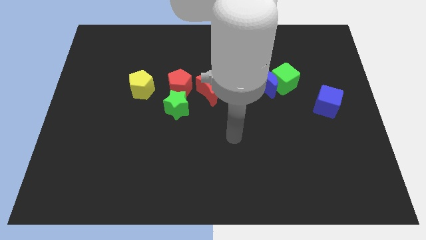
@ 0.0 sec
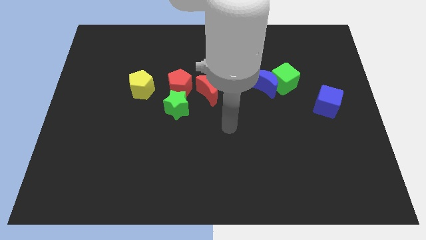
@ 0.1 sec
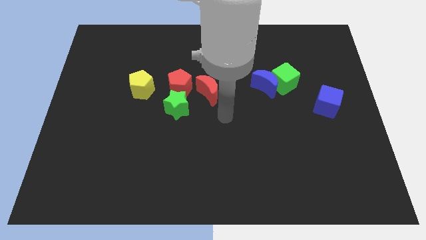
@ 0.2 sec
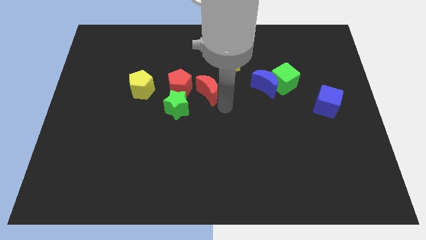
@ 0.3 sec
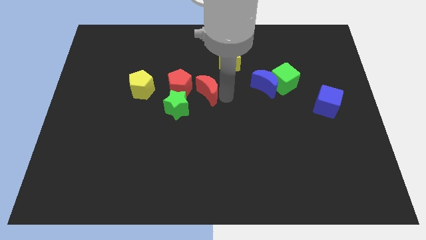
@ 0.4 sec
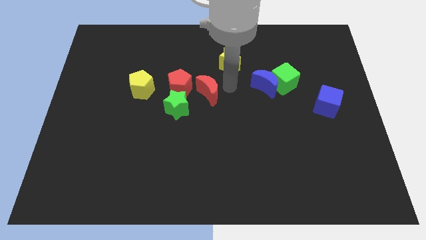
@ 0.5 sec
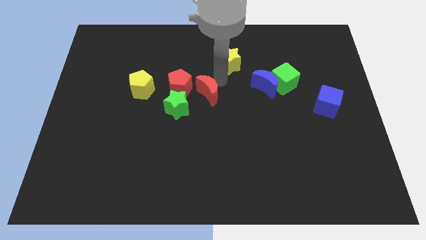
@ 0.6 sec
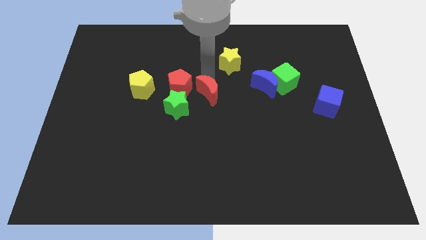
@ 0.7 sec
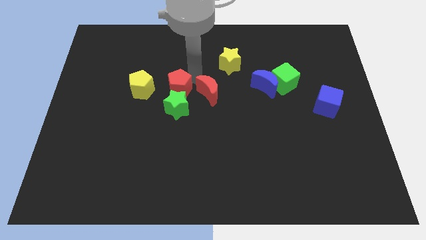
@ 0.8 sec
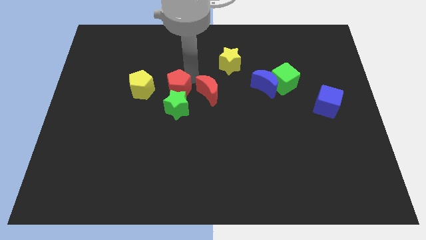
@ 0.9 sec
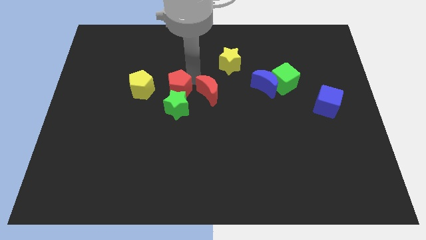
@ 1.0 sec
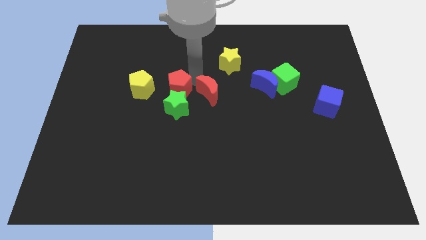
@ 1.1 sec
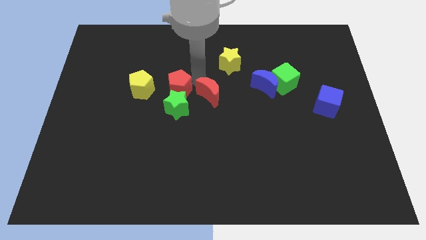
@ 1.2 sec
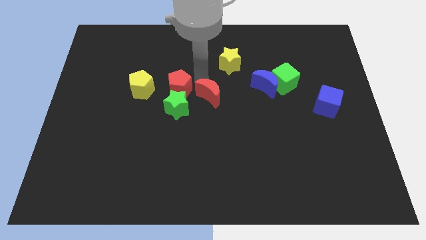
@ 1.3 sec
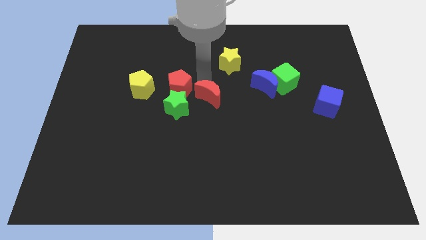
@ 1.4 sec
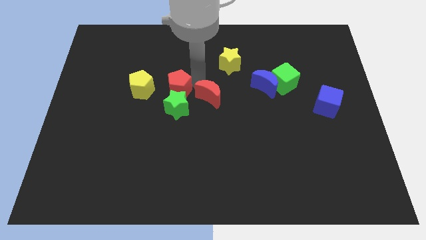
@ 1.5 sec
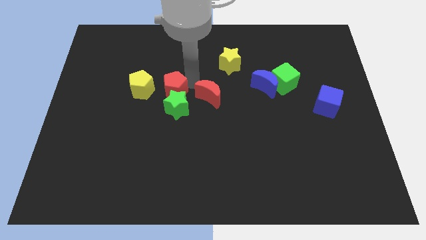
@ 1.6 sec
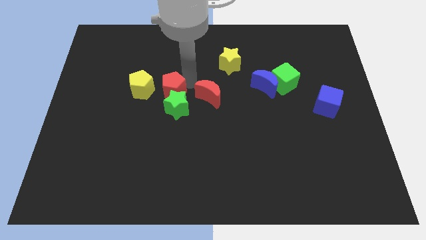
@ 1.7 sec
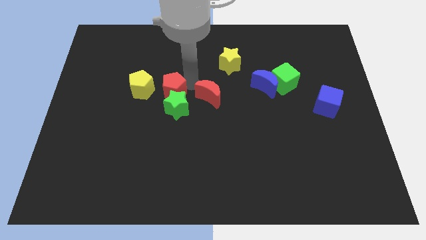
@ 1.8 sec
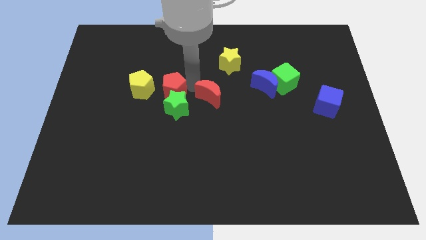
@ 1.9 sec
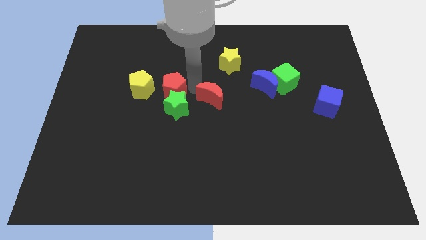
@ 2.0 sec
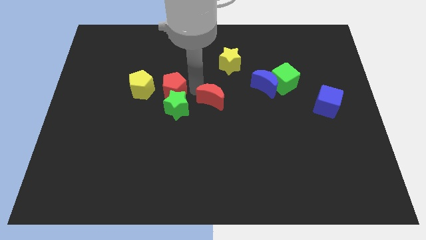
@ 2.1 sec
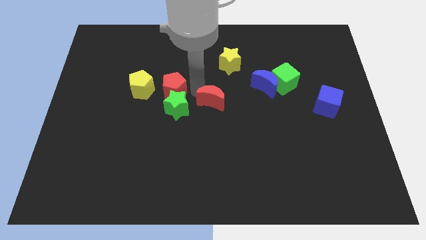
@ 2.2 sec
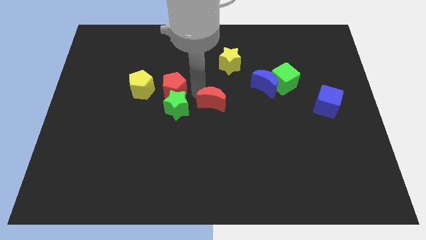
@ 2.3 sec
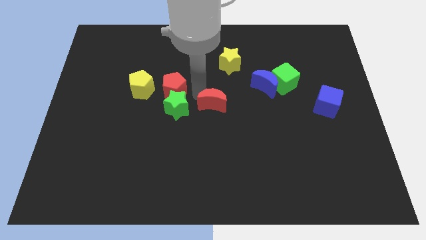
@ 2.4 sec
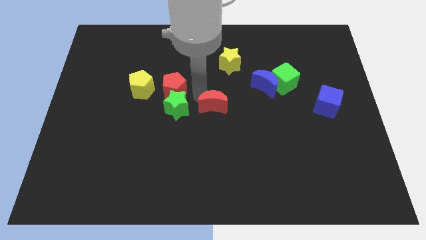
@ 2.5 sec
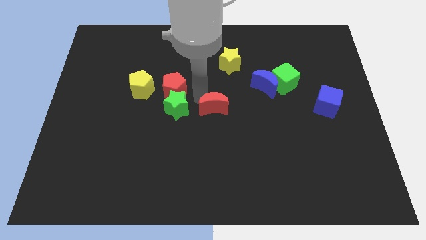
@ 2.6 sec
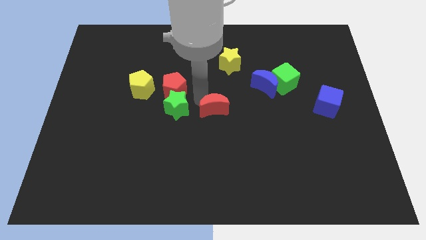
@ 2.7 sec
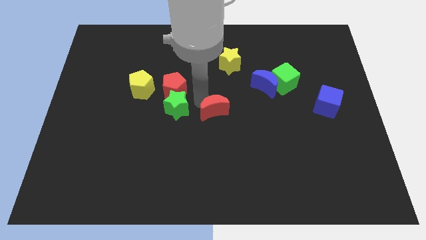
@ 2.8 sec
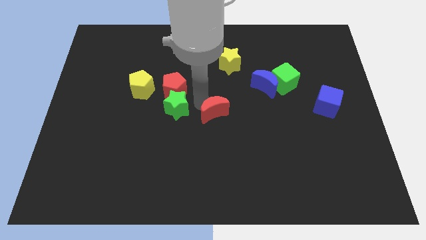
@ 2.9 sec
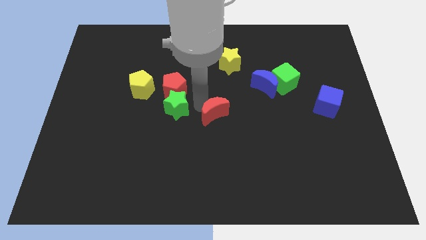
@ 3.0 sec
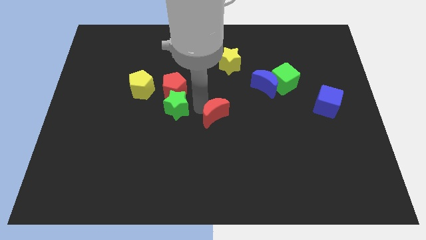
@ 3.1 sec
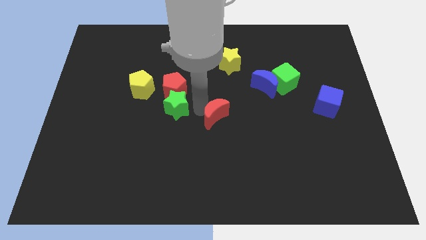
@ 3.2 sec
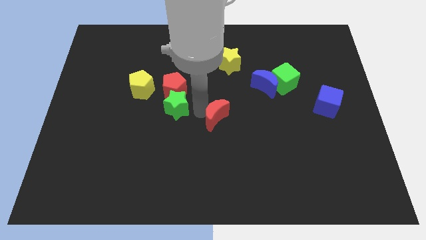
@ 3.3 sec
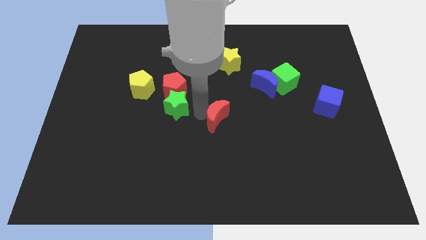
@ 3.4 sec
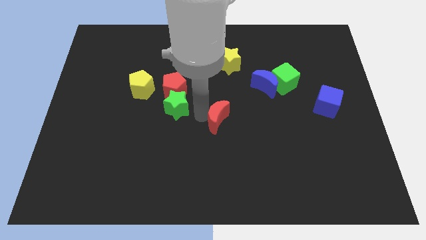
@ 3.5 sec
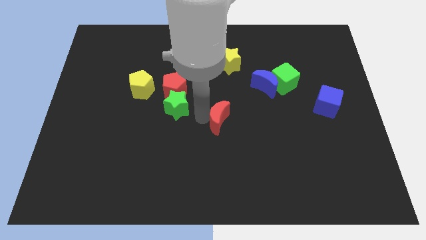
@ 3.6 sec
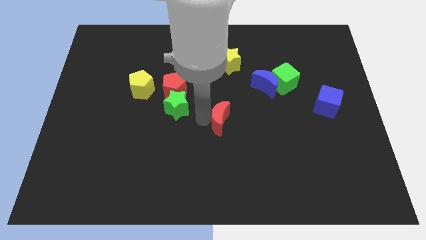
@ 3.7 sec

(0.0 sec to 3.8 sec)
slightly move the red moon down and then to the right

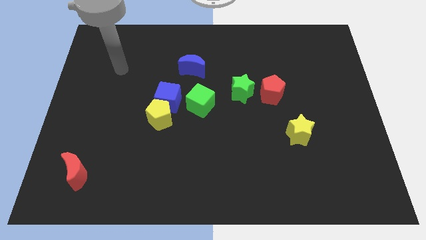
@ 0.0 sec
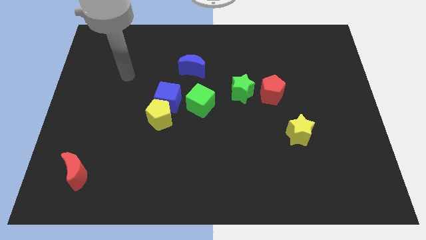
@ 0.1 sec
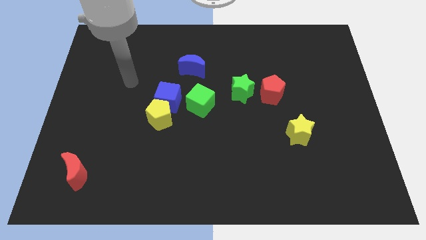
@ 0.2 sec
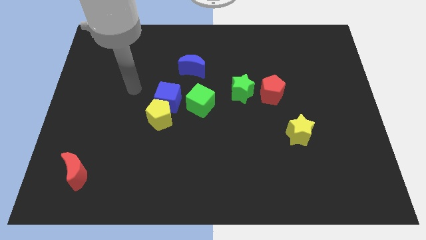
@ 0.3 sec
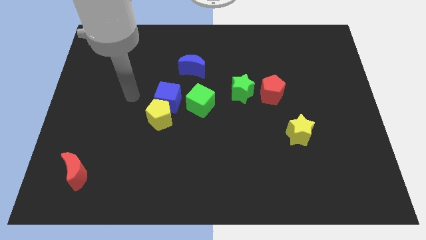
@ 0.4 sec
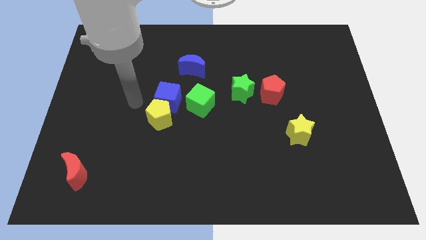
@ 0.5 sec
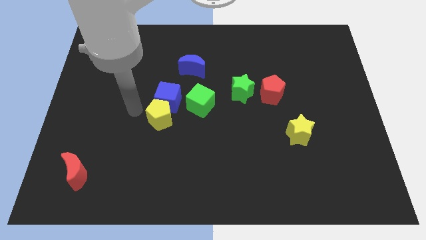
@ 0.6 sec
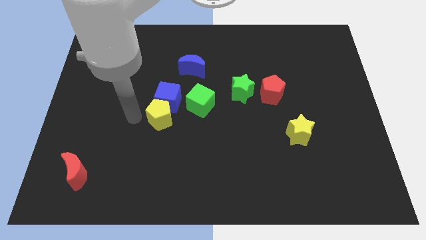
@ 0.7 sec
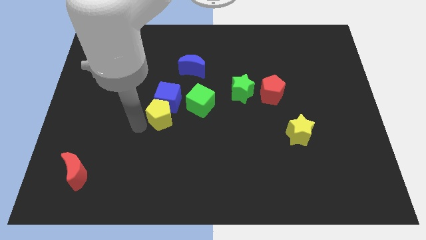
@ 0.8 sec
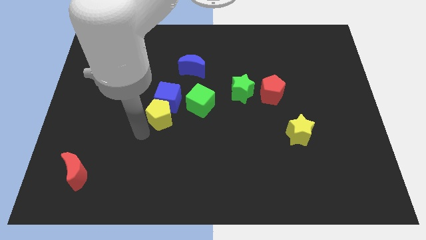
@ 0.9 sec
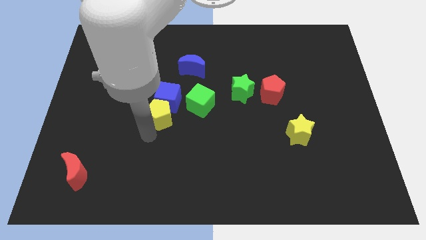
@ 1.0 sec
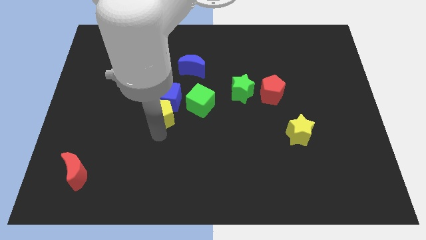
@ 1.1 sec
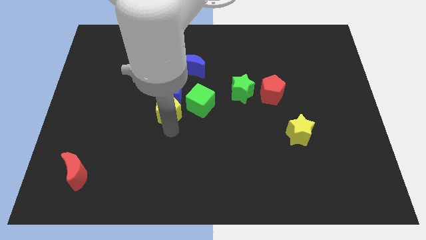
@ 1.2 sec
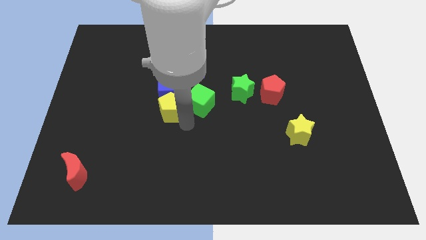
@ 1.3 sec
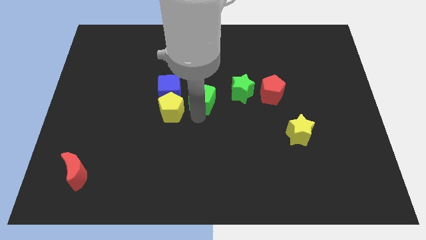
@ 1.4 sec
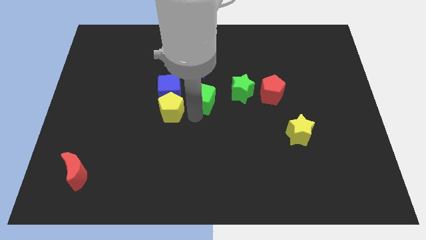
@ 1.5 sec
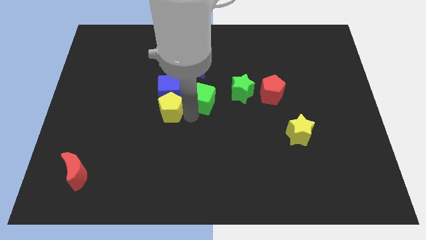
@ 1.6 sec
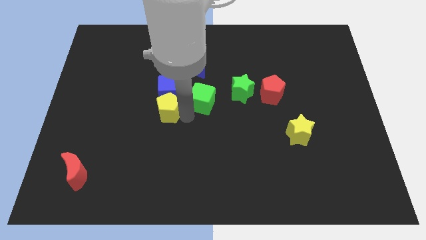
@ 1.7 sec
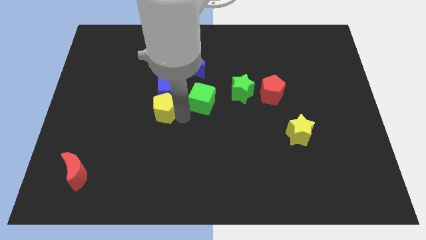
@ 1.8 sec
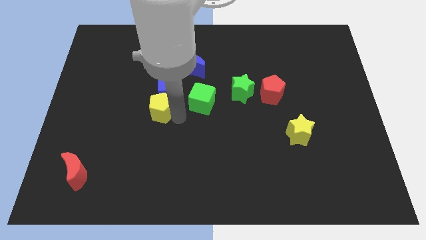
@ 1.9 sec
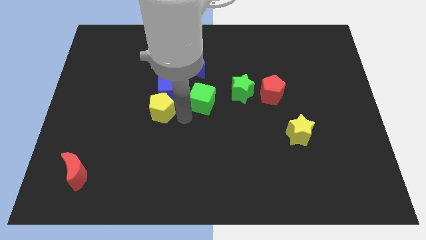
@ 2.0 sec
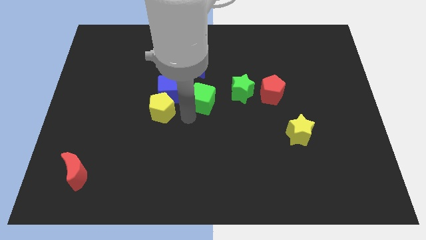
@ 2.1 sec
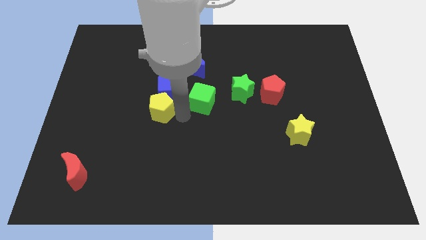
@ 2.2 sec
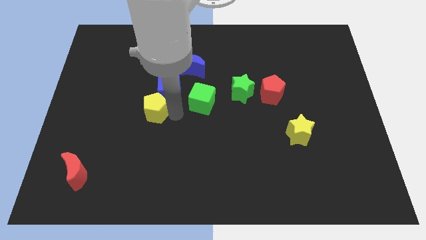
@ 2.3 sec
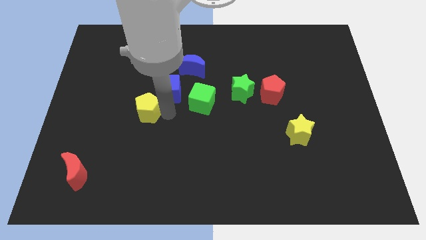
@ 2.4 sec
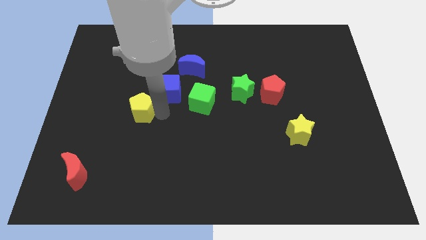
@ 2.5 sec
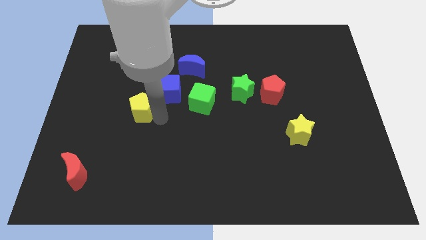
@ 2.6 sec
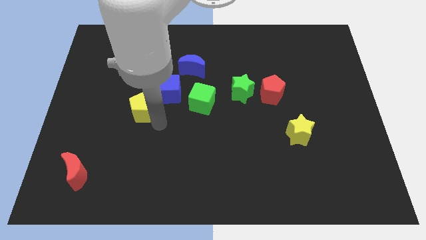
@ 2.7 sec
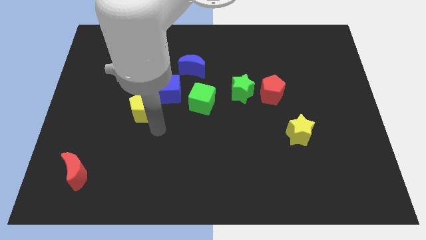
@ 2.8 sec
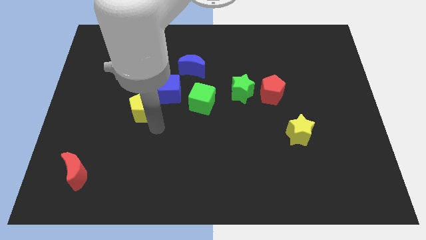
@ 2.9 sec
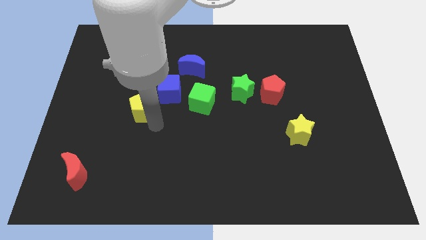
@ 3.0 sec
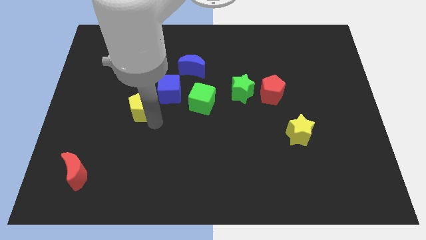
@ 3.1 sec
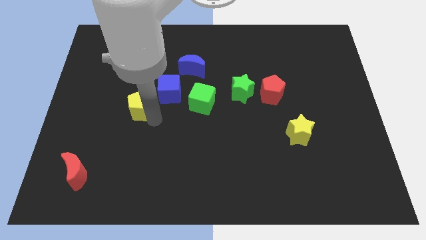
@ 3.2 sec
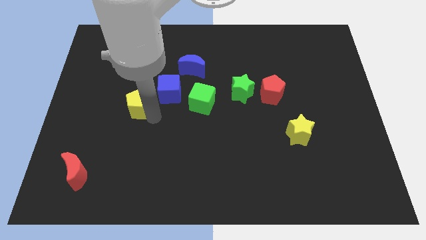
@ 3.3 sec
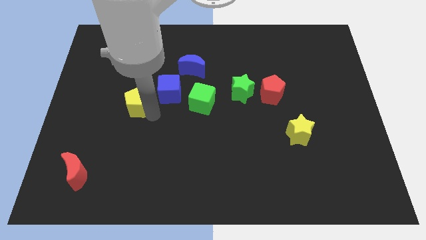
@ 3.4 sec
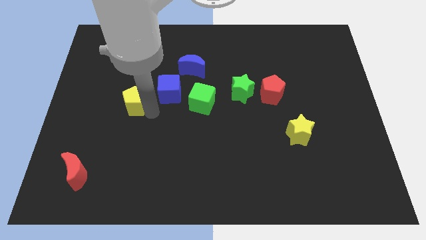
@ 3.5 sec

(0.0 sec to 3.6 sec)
slightly move the yellow pentagon upwards and left

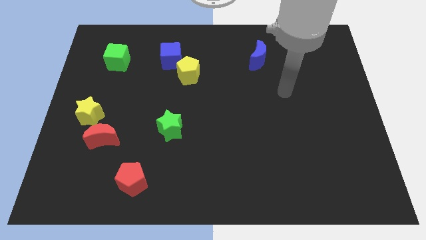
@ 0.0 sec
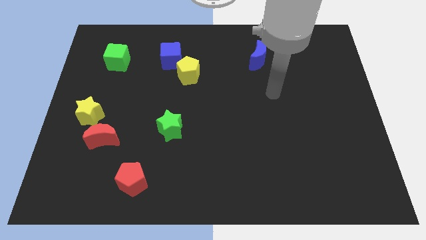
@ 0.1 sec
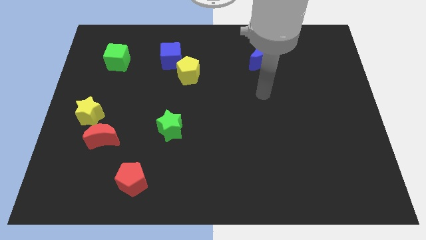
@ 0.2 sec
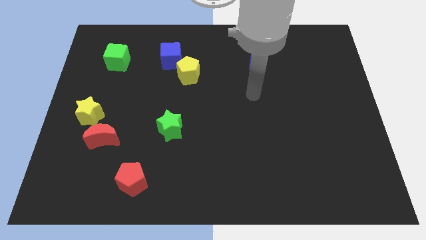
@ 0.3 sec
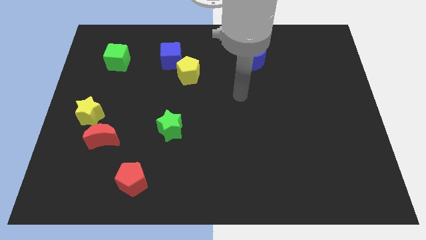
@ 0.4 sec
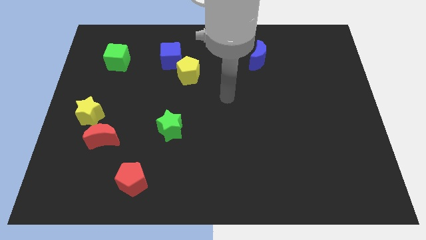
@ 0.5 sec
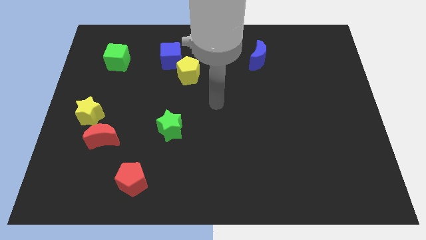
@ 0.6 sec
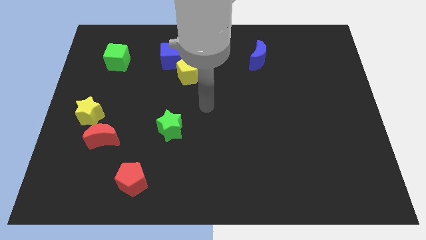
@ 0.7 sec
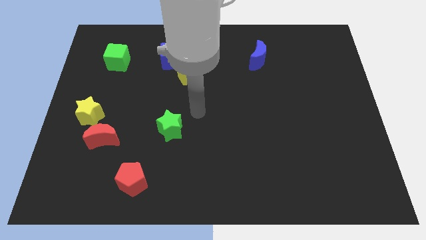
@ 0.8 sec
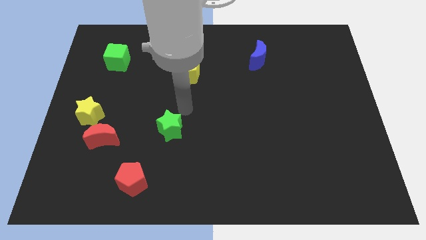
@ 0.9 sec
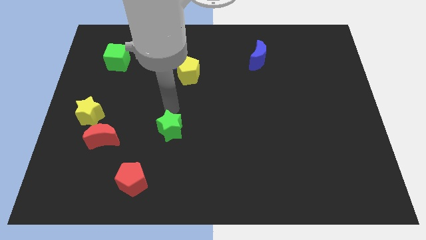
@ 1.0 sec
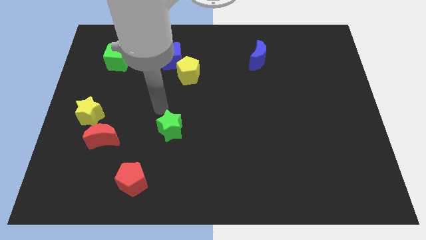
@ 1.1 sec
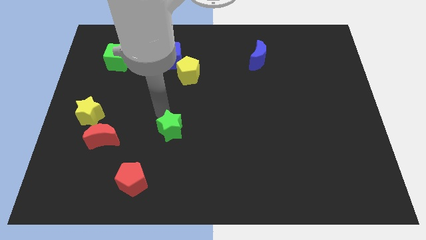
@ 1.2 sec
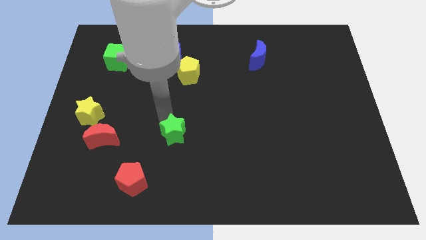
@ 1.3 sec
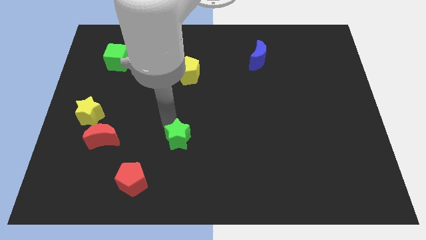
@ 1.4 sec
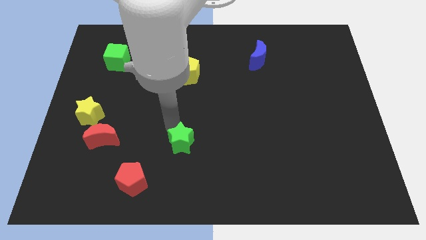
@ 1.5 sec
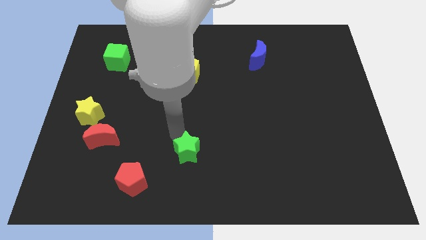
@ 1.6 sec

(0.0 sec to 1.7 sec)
slightly push the green star downwards and then to the right
